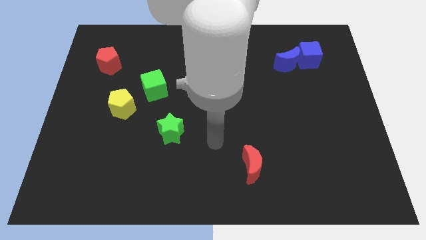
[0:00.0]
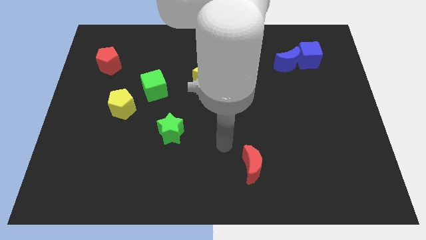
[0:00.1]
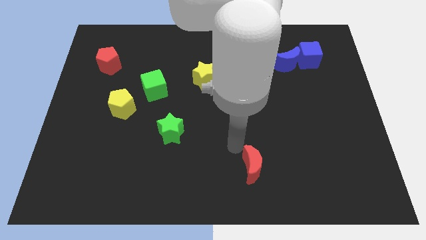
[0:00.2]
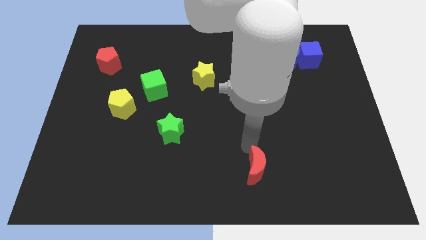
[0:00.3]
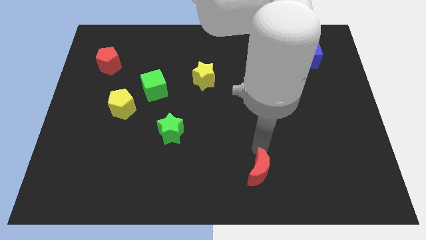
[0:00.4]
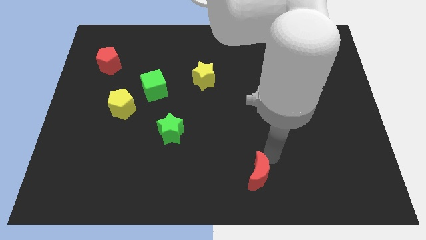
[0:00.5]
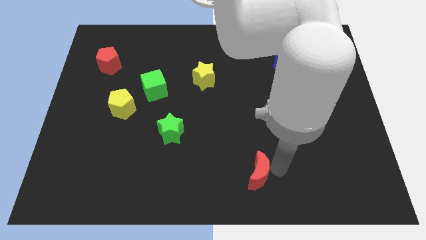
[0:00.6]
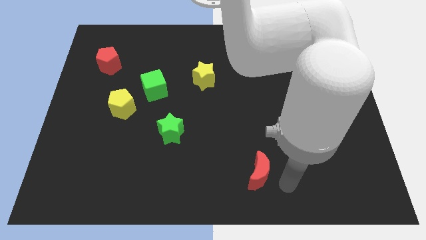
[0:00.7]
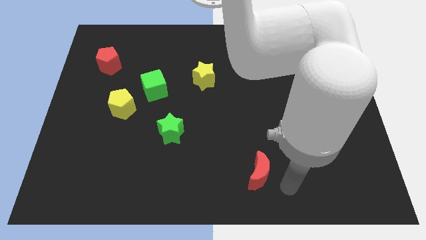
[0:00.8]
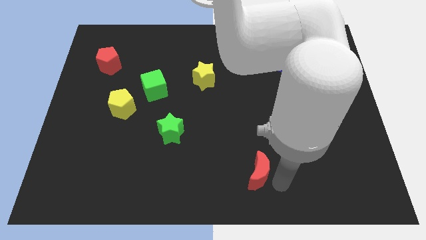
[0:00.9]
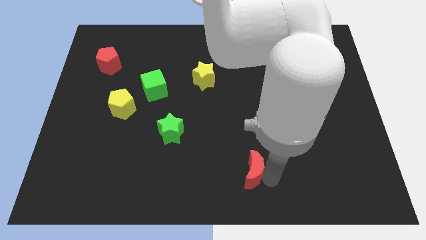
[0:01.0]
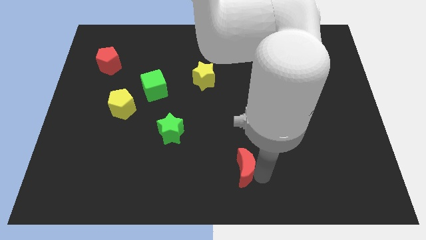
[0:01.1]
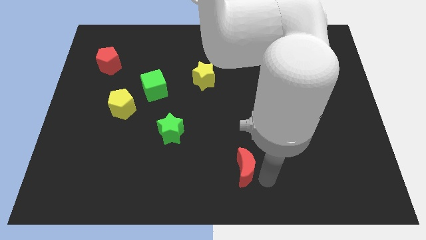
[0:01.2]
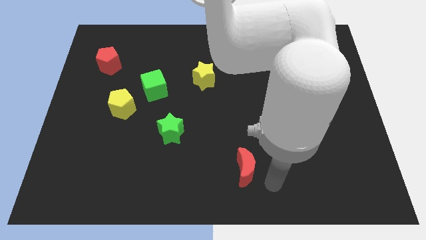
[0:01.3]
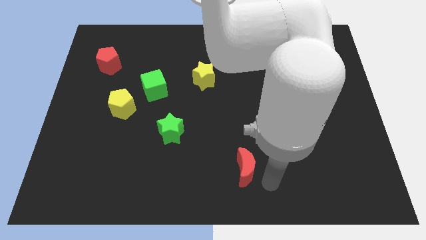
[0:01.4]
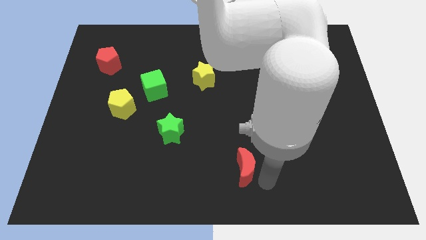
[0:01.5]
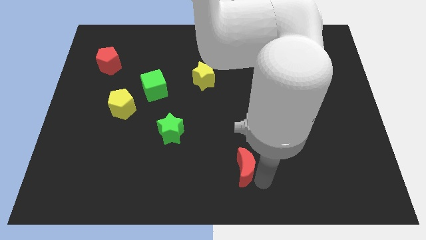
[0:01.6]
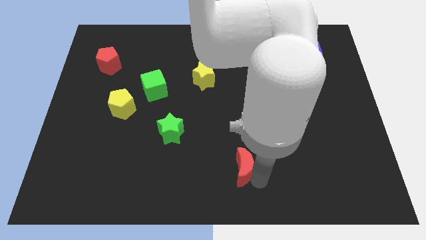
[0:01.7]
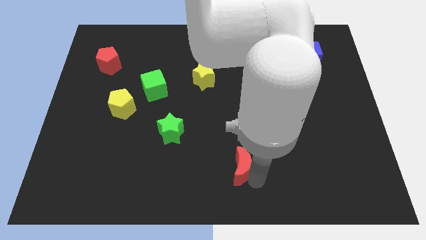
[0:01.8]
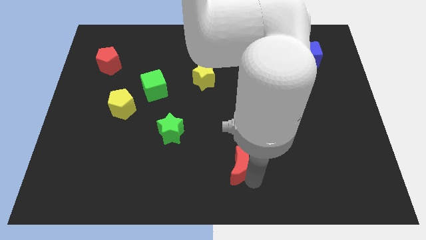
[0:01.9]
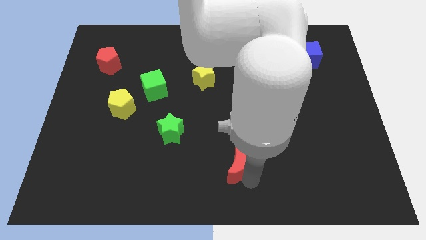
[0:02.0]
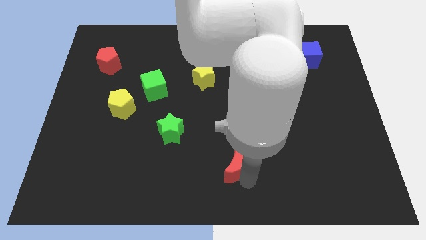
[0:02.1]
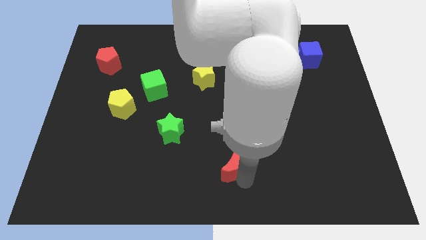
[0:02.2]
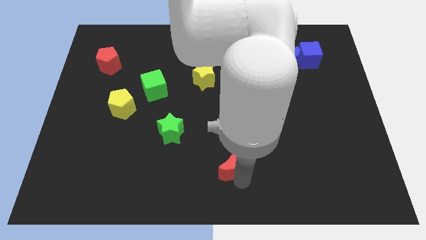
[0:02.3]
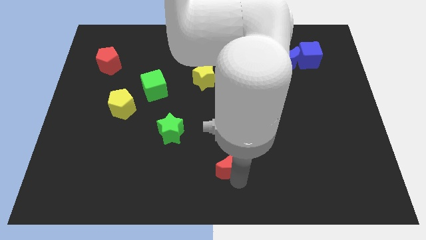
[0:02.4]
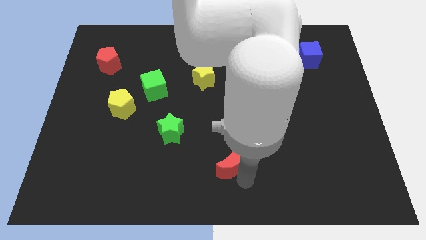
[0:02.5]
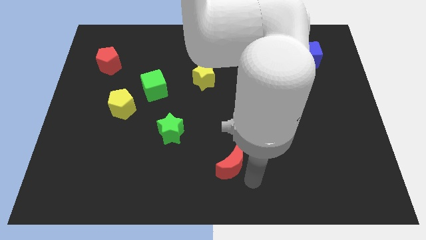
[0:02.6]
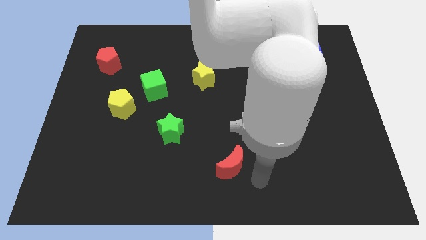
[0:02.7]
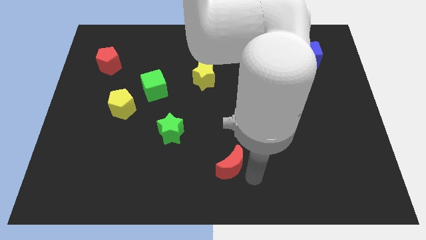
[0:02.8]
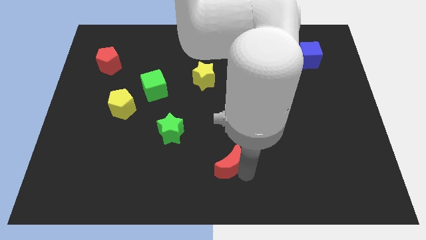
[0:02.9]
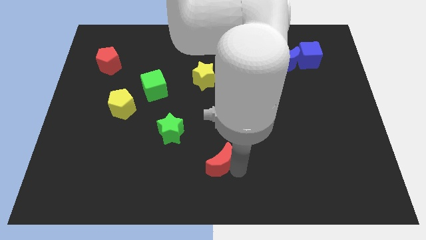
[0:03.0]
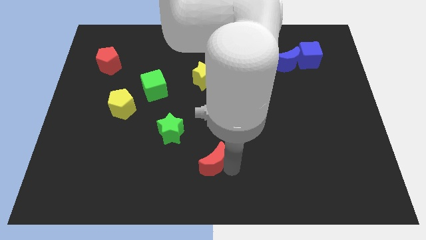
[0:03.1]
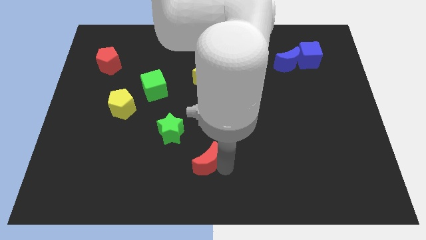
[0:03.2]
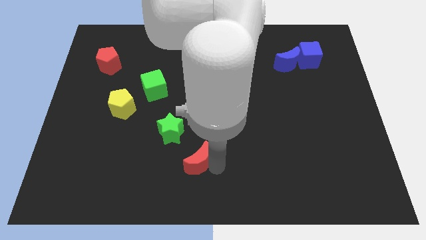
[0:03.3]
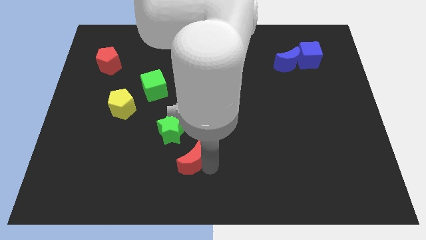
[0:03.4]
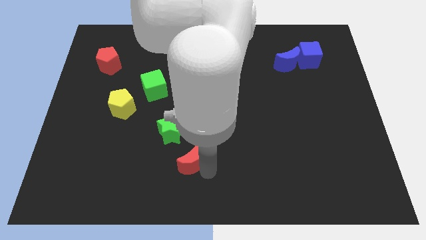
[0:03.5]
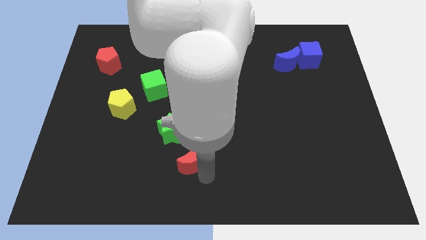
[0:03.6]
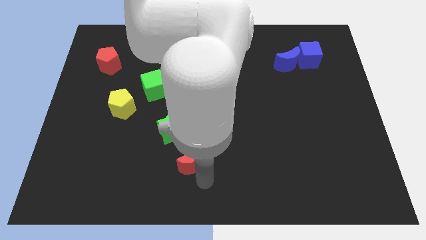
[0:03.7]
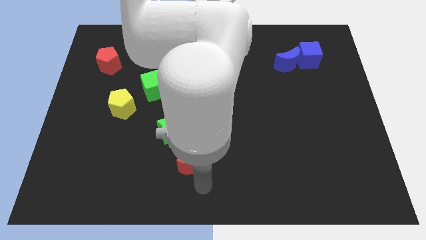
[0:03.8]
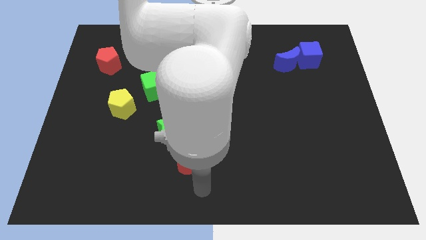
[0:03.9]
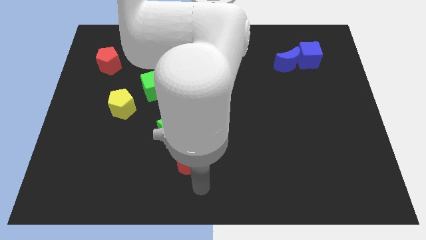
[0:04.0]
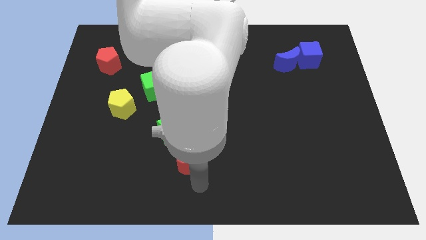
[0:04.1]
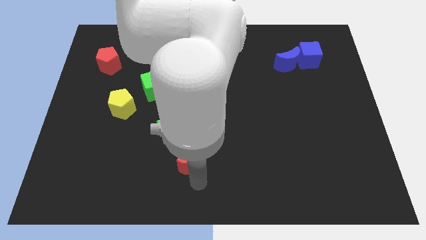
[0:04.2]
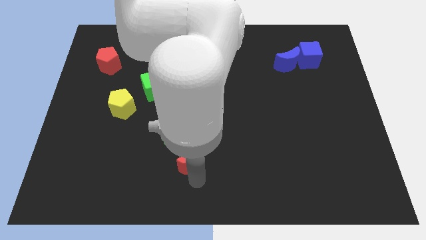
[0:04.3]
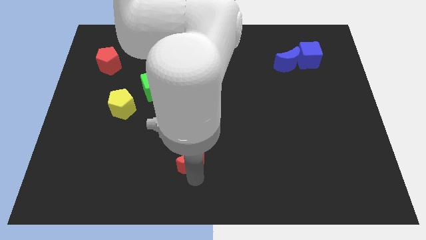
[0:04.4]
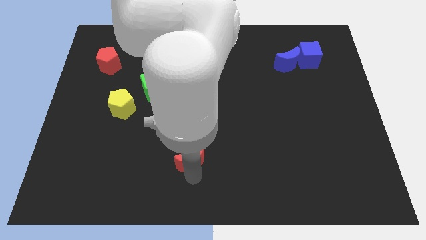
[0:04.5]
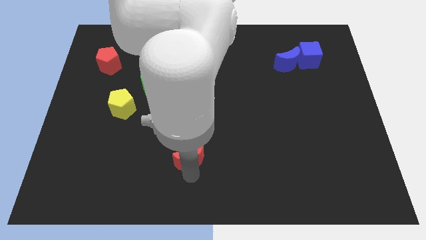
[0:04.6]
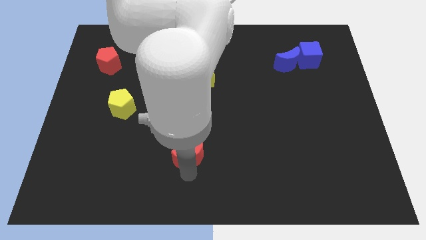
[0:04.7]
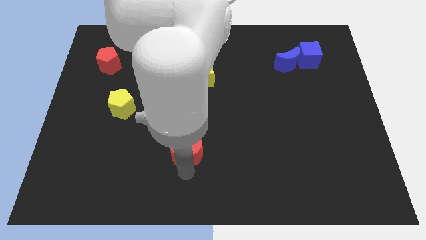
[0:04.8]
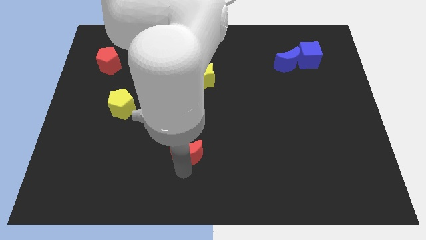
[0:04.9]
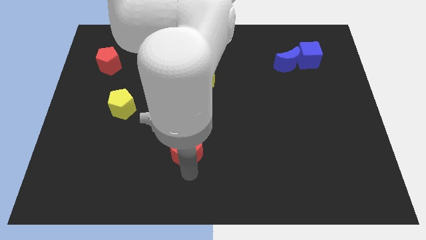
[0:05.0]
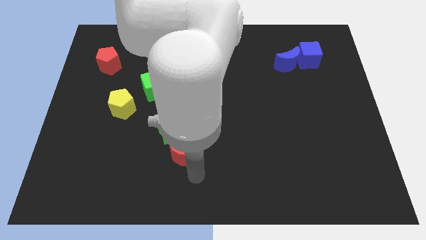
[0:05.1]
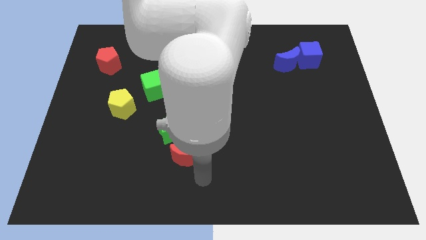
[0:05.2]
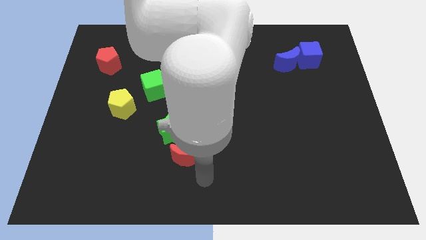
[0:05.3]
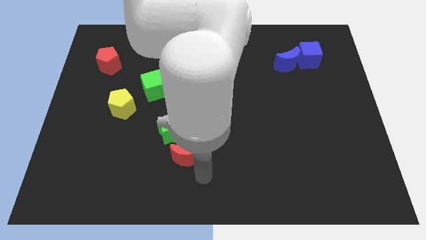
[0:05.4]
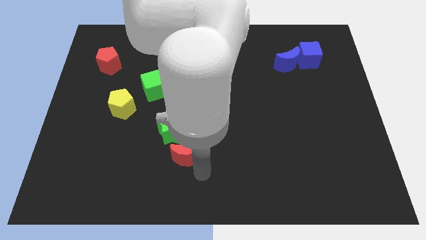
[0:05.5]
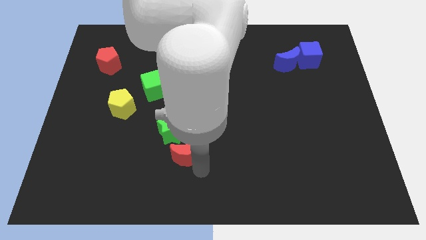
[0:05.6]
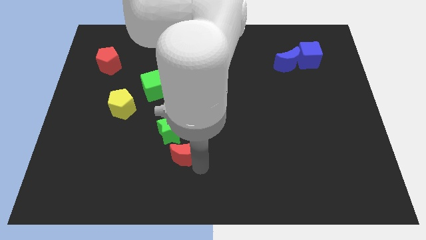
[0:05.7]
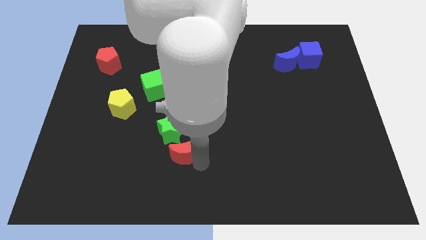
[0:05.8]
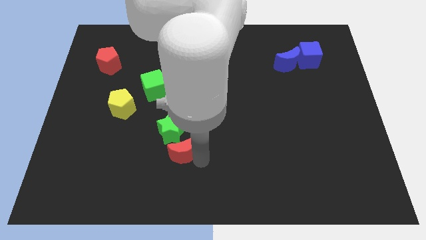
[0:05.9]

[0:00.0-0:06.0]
move the red moon close to the green star

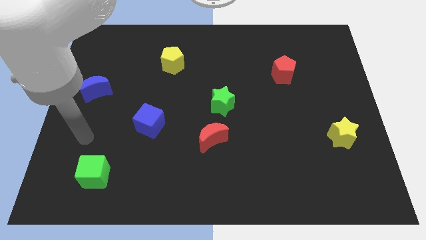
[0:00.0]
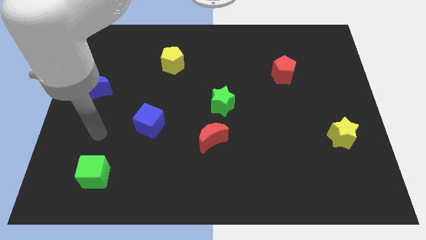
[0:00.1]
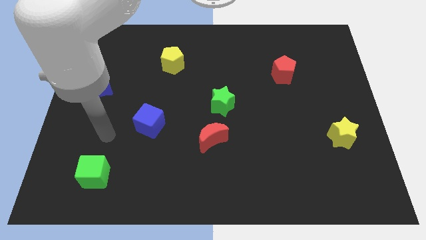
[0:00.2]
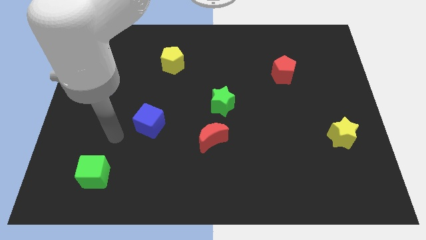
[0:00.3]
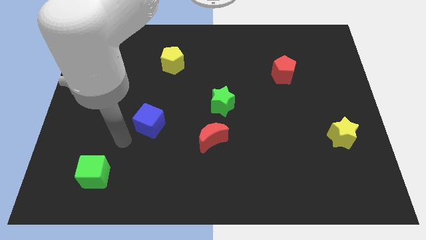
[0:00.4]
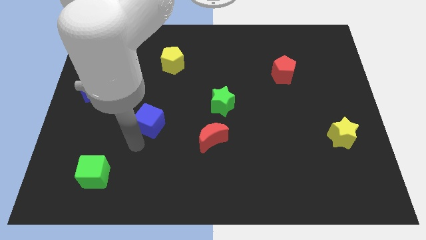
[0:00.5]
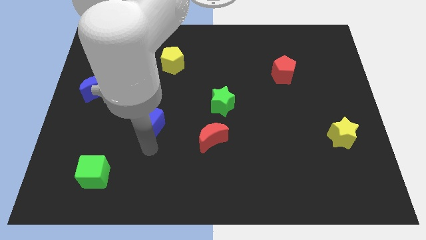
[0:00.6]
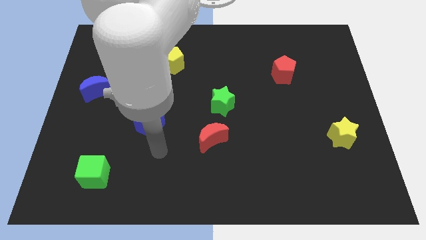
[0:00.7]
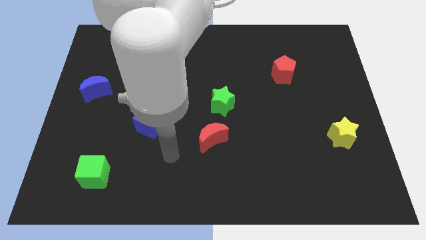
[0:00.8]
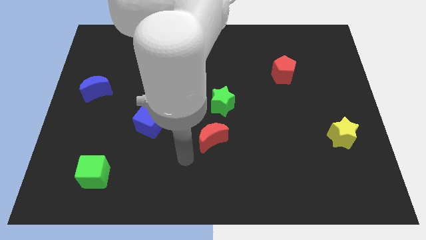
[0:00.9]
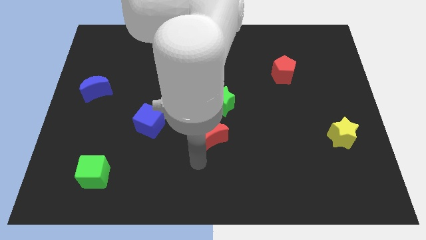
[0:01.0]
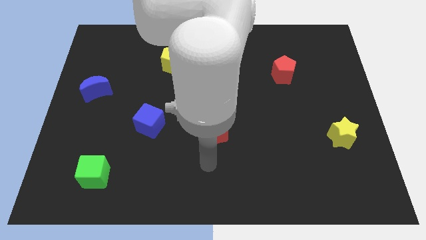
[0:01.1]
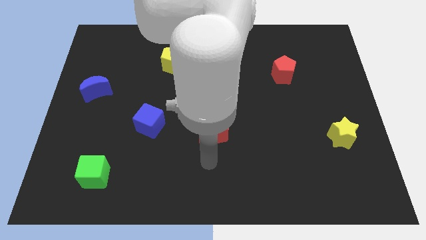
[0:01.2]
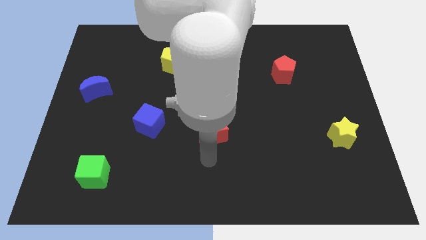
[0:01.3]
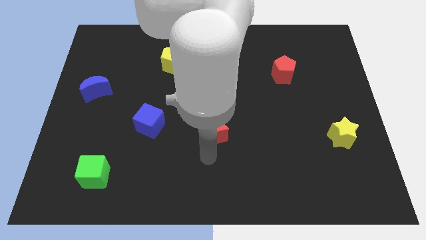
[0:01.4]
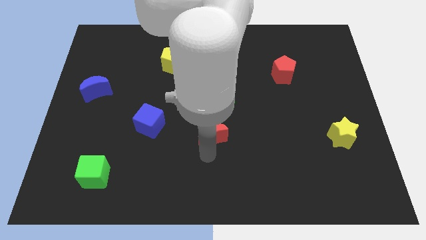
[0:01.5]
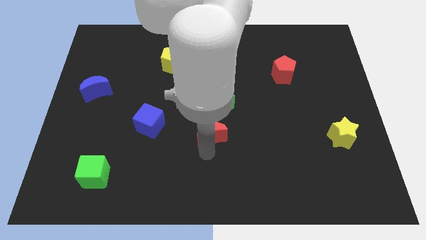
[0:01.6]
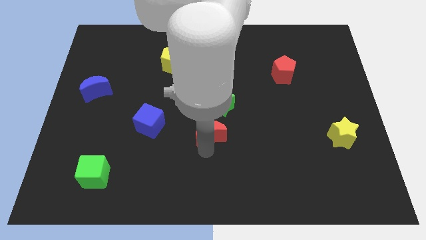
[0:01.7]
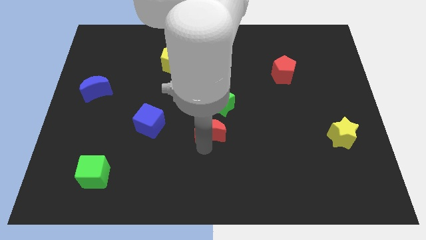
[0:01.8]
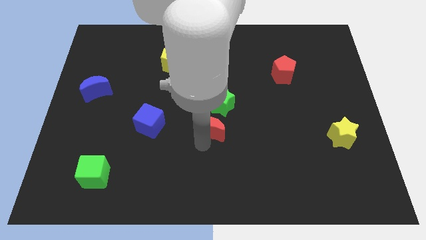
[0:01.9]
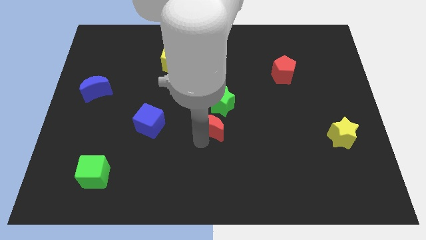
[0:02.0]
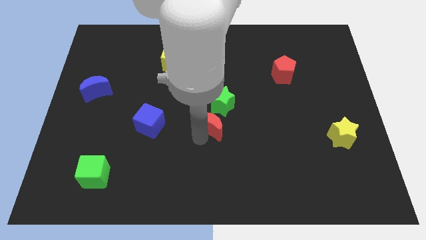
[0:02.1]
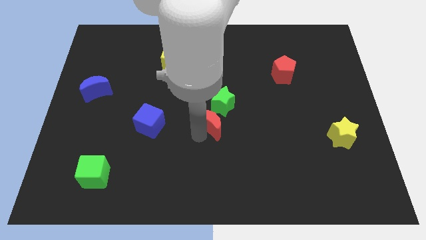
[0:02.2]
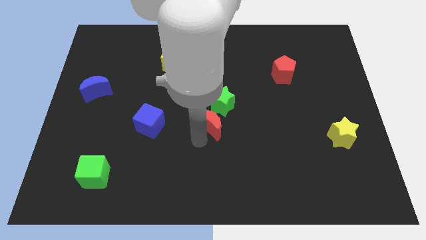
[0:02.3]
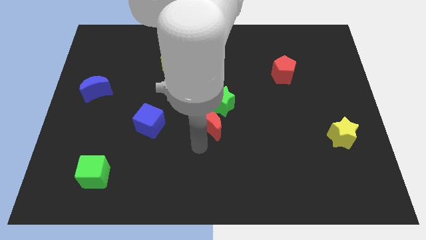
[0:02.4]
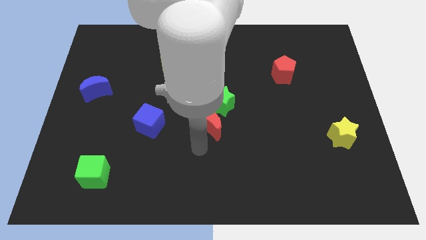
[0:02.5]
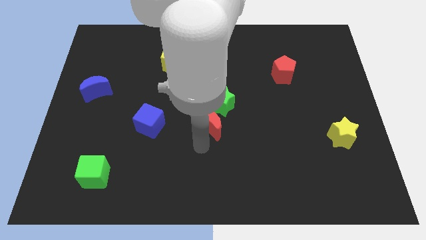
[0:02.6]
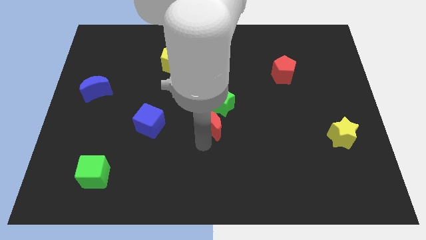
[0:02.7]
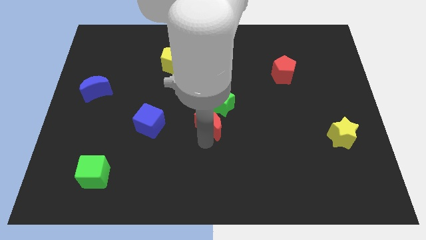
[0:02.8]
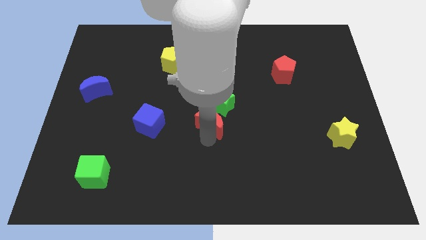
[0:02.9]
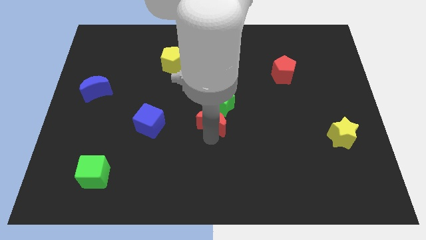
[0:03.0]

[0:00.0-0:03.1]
put the red moon to the green star
